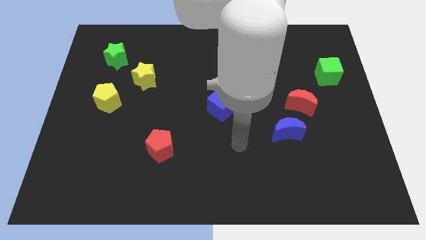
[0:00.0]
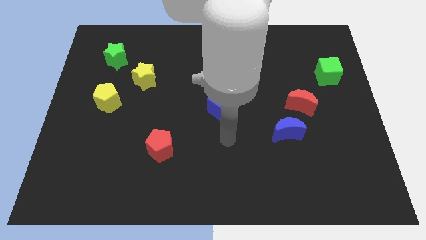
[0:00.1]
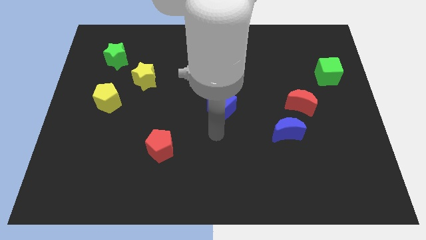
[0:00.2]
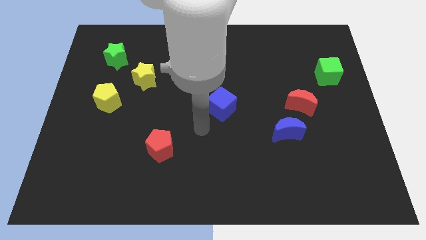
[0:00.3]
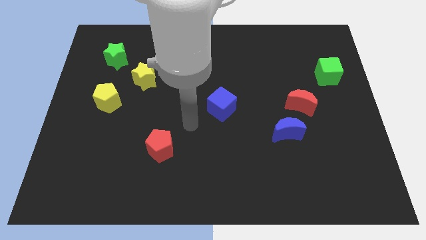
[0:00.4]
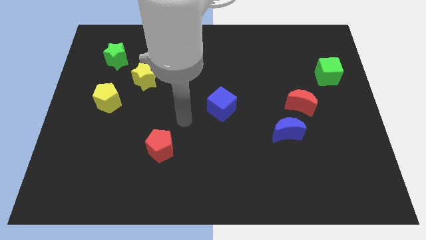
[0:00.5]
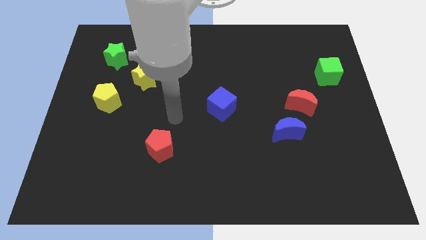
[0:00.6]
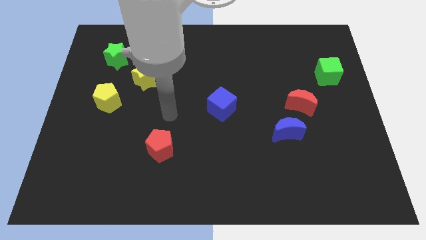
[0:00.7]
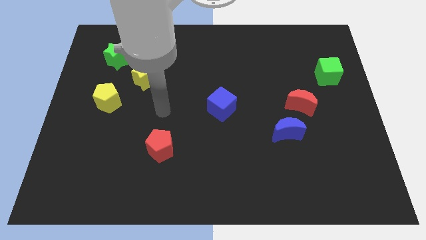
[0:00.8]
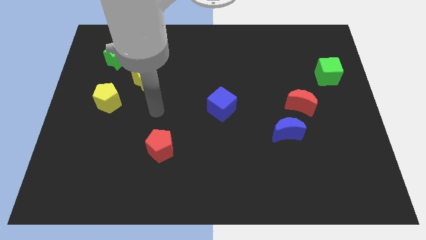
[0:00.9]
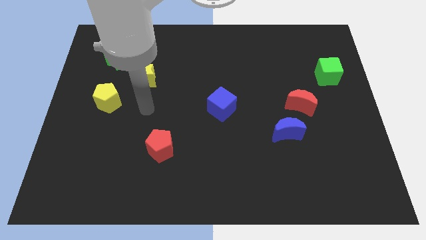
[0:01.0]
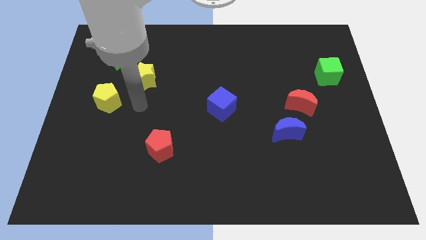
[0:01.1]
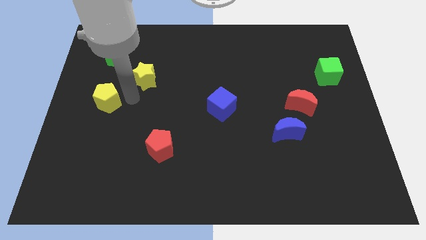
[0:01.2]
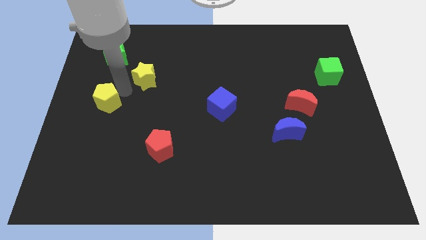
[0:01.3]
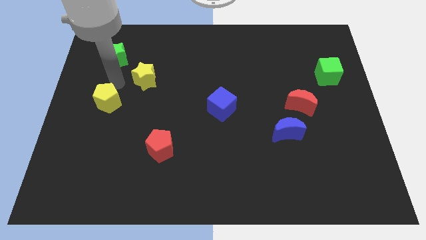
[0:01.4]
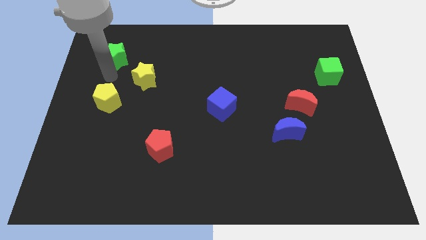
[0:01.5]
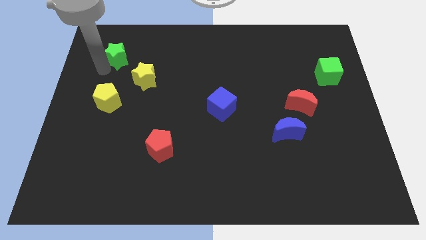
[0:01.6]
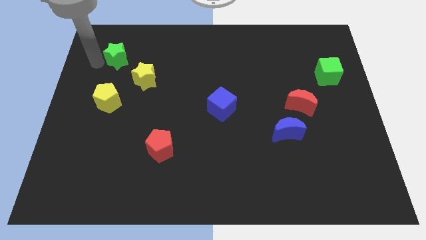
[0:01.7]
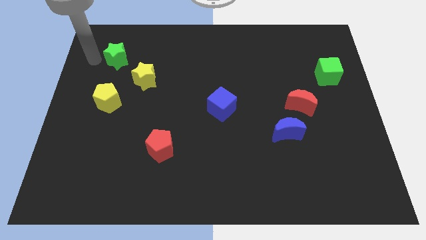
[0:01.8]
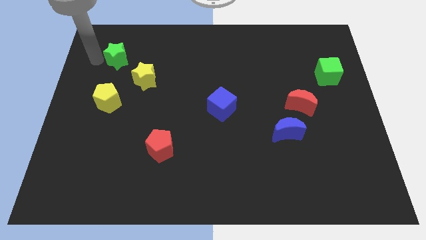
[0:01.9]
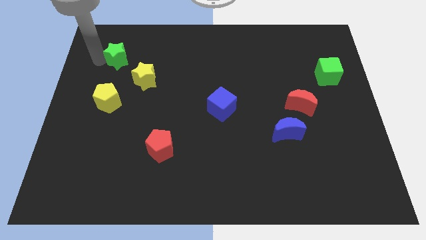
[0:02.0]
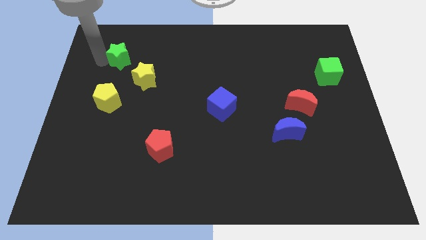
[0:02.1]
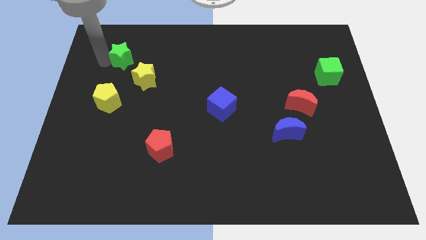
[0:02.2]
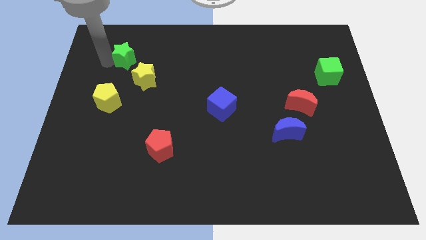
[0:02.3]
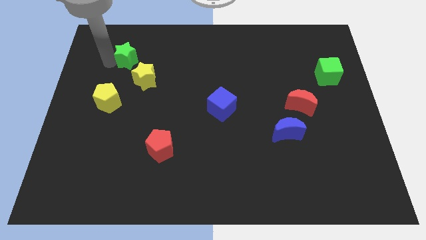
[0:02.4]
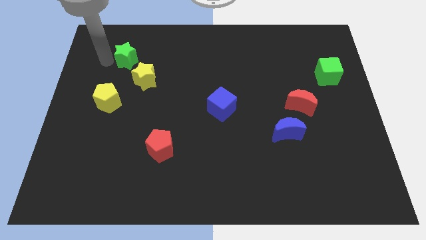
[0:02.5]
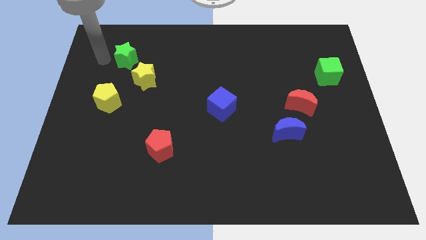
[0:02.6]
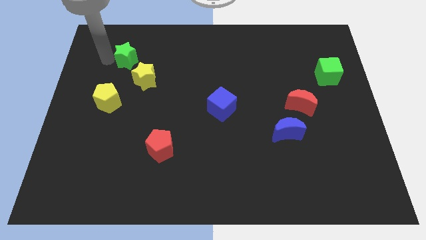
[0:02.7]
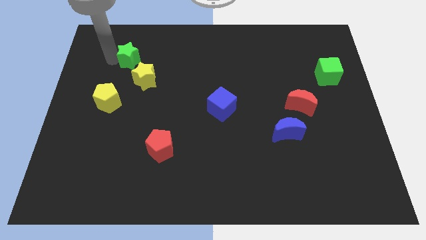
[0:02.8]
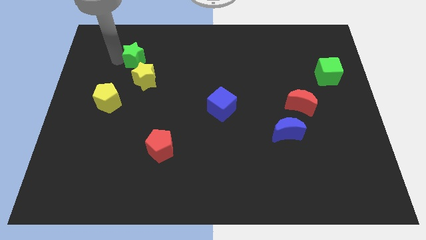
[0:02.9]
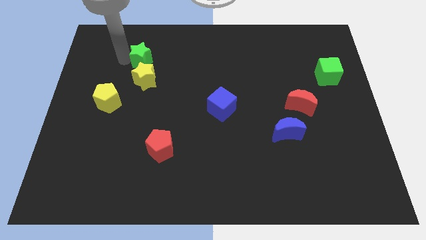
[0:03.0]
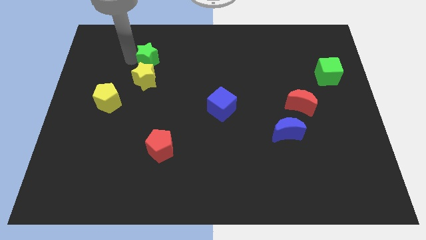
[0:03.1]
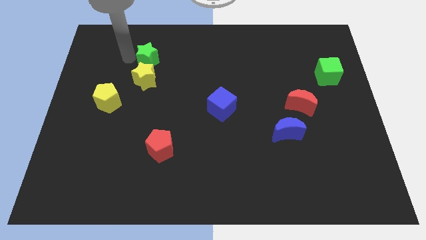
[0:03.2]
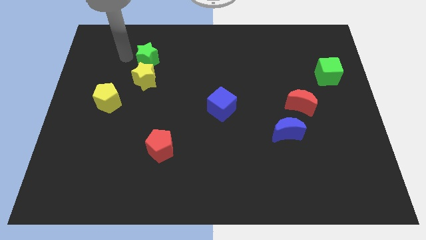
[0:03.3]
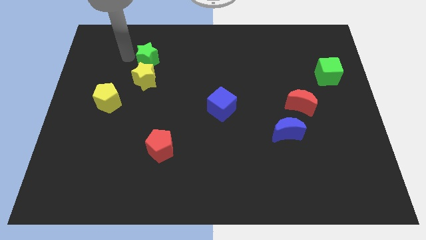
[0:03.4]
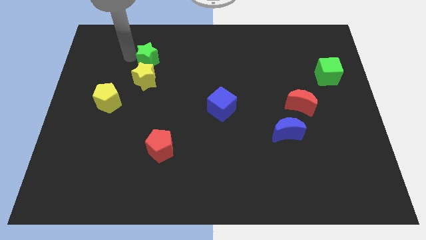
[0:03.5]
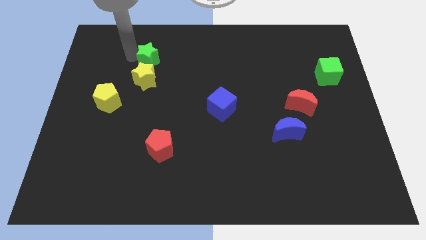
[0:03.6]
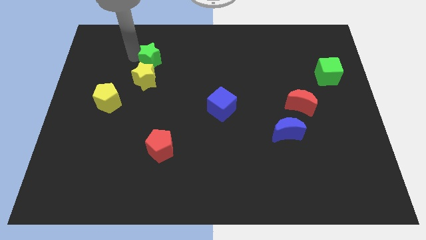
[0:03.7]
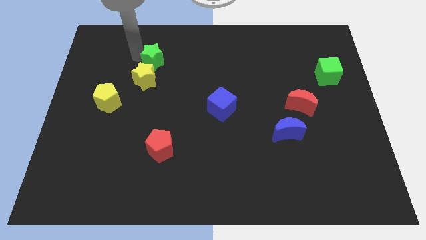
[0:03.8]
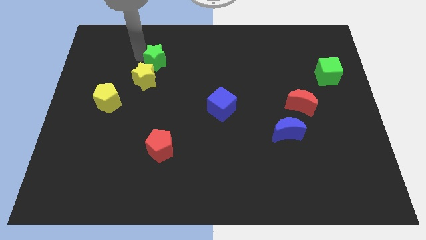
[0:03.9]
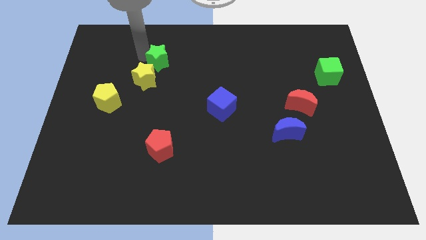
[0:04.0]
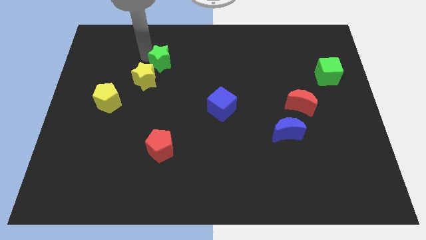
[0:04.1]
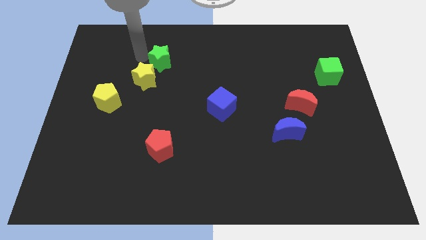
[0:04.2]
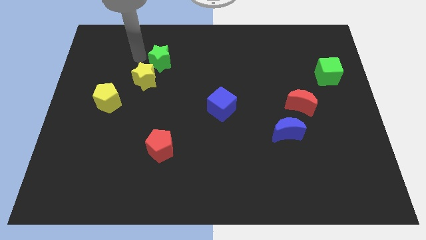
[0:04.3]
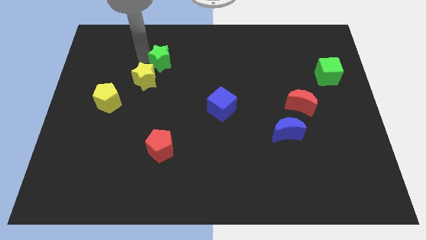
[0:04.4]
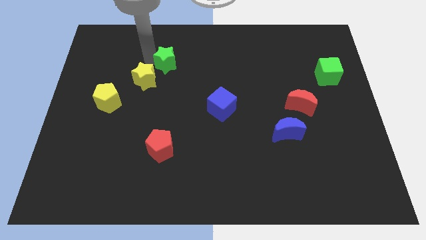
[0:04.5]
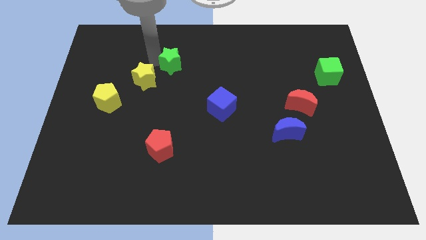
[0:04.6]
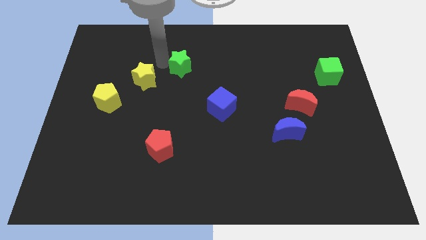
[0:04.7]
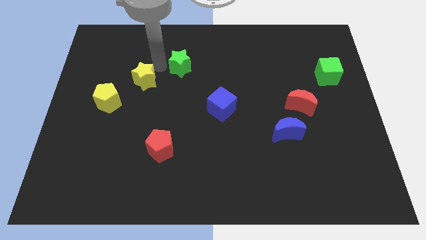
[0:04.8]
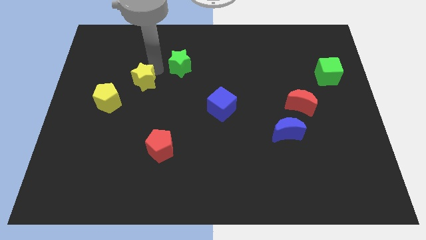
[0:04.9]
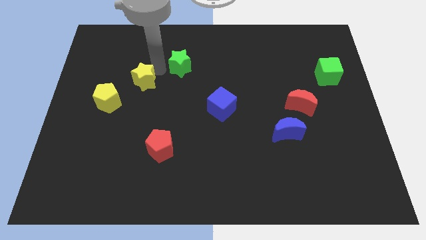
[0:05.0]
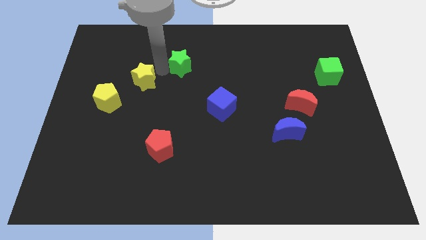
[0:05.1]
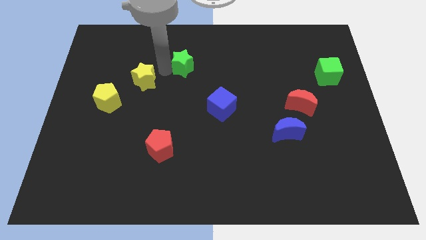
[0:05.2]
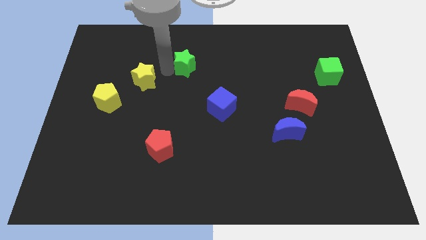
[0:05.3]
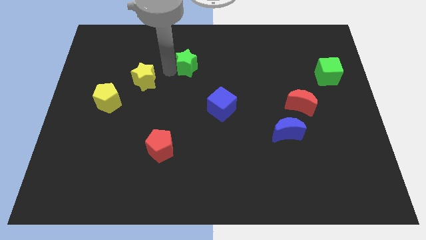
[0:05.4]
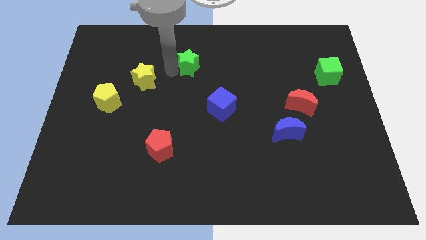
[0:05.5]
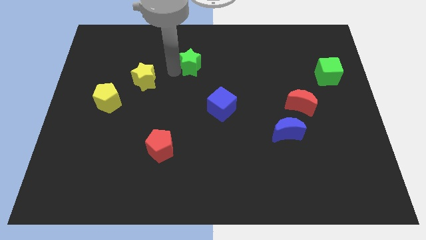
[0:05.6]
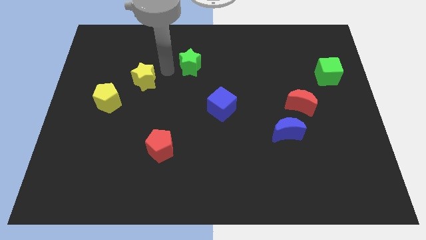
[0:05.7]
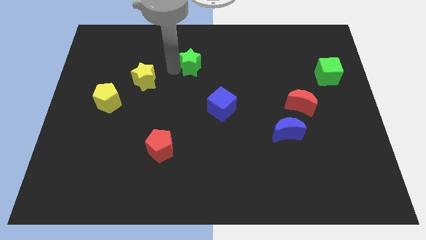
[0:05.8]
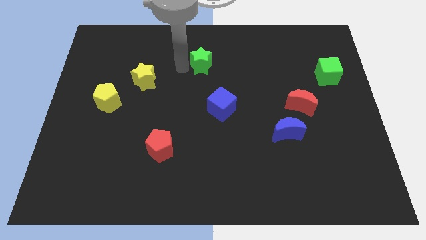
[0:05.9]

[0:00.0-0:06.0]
move the green star right

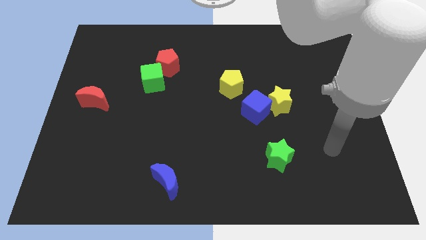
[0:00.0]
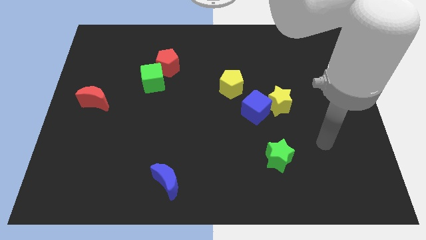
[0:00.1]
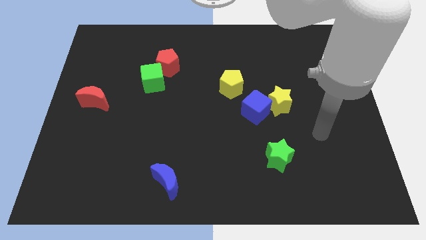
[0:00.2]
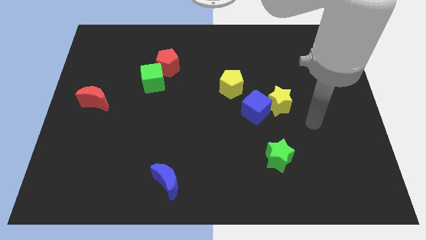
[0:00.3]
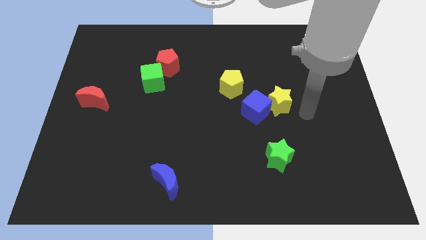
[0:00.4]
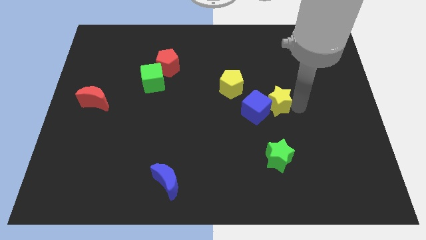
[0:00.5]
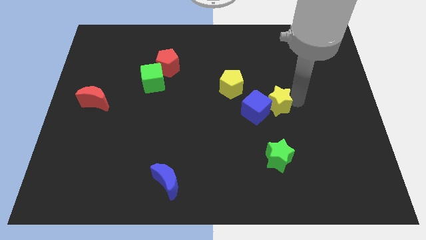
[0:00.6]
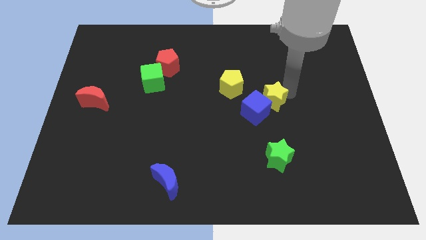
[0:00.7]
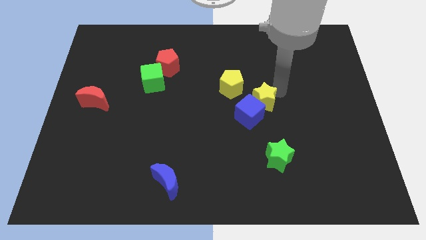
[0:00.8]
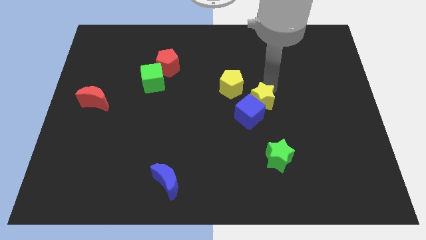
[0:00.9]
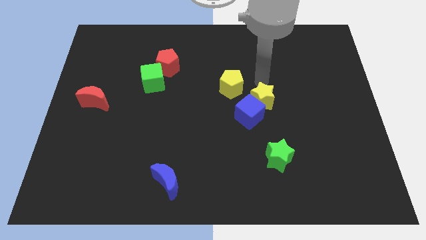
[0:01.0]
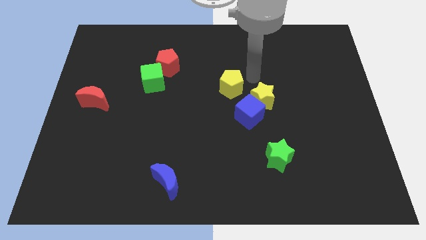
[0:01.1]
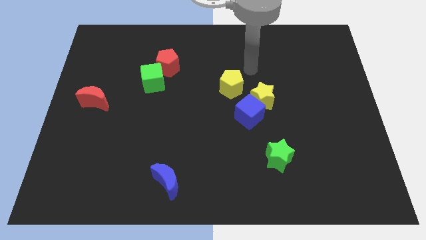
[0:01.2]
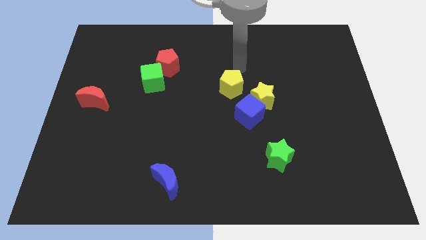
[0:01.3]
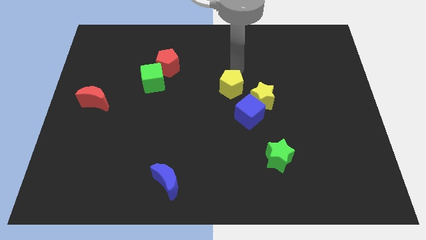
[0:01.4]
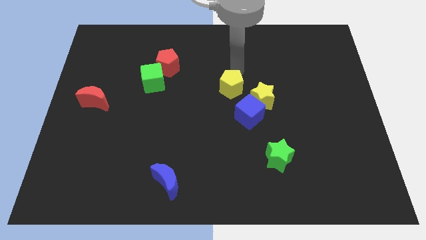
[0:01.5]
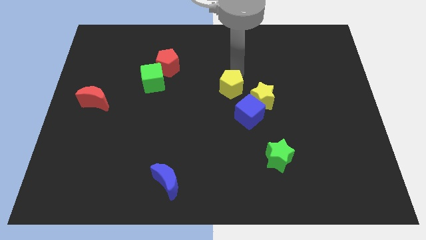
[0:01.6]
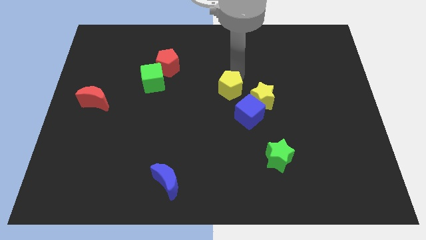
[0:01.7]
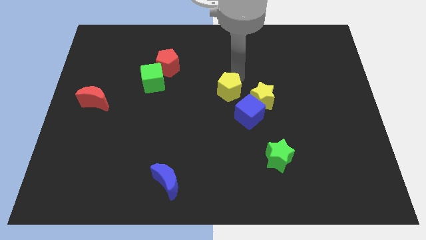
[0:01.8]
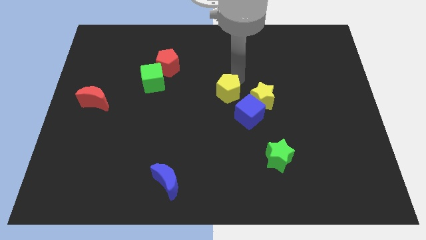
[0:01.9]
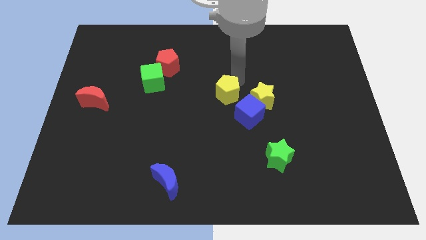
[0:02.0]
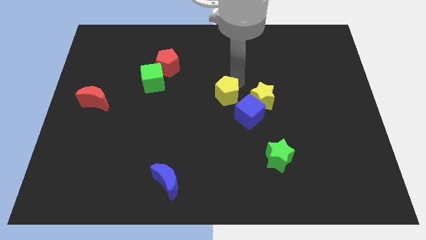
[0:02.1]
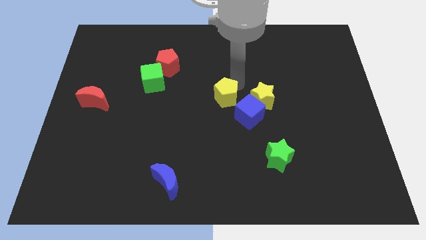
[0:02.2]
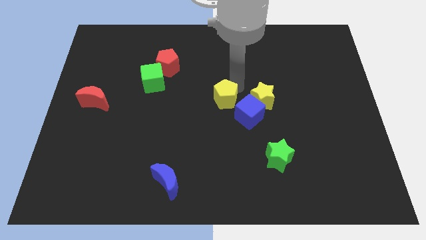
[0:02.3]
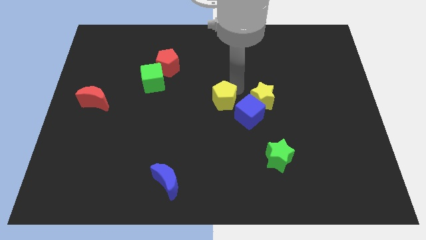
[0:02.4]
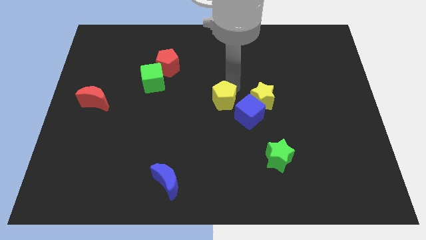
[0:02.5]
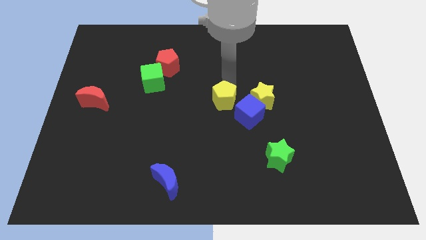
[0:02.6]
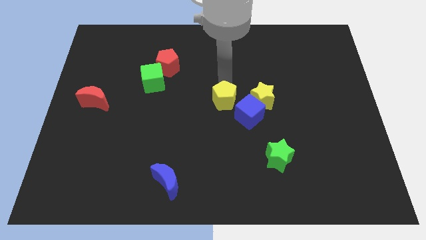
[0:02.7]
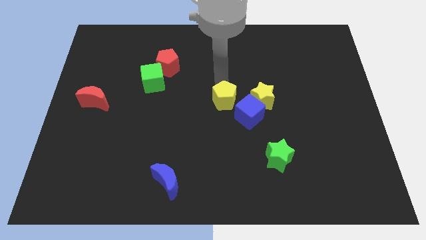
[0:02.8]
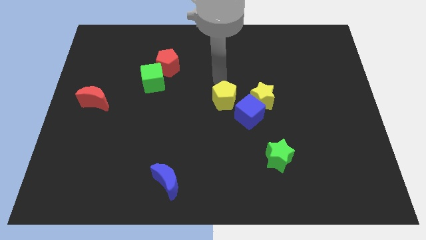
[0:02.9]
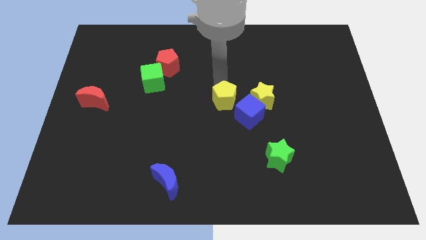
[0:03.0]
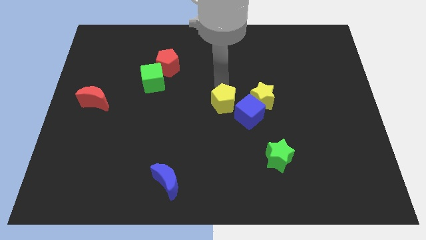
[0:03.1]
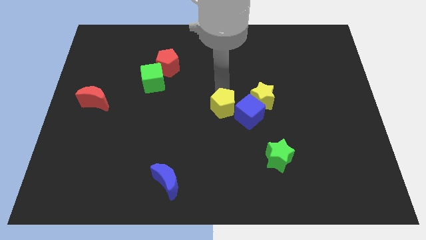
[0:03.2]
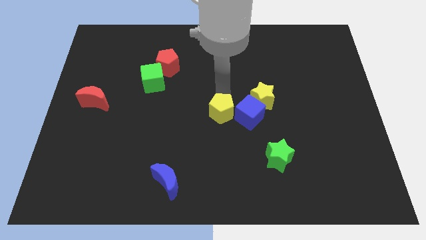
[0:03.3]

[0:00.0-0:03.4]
slide the yellow pentagon down a little bit
